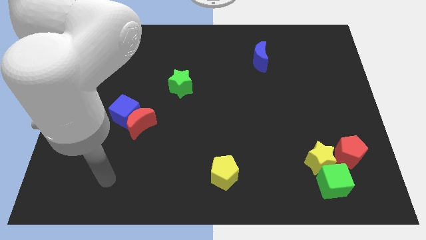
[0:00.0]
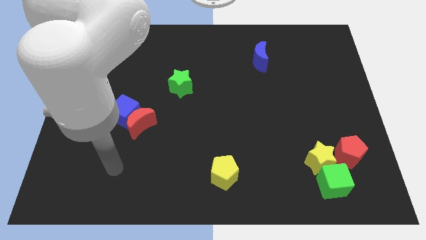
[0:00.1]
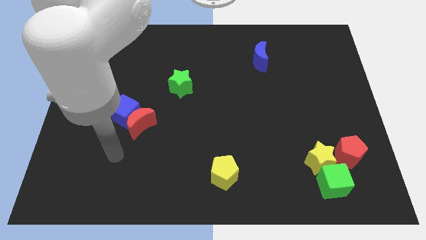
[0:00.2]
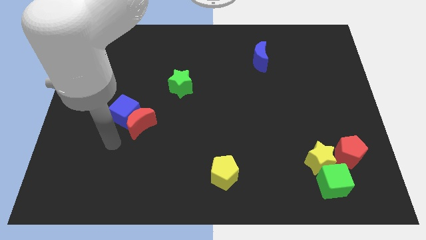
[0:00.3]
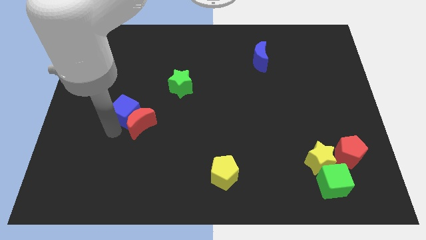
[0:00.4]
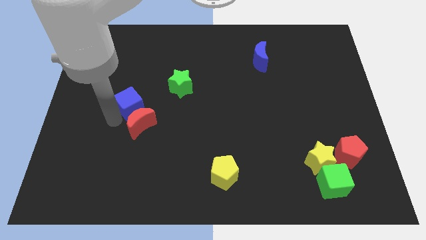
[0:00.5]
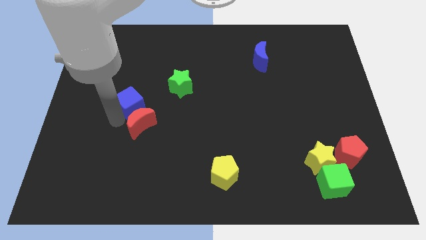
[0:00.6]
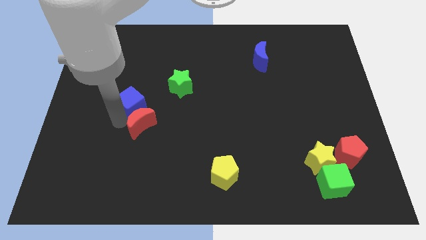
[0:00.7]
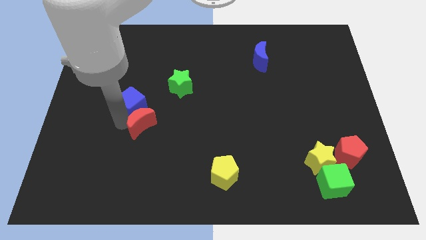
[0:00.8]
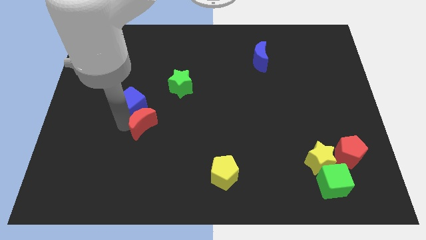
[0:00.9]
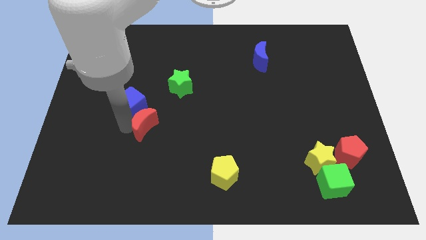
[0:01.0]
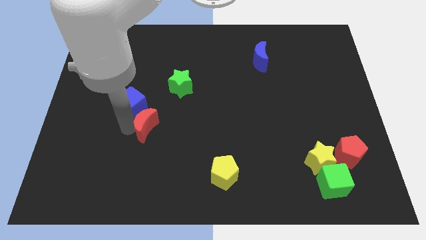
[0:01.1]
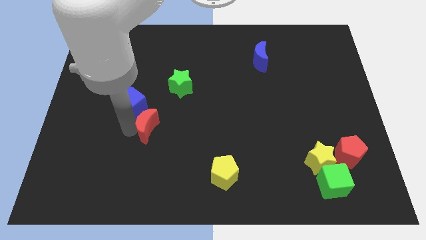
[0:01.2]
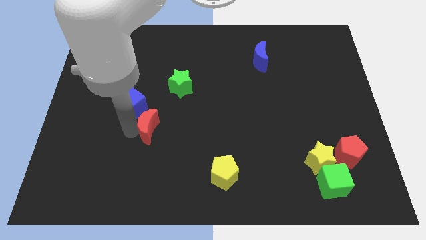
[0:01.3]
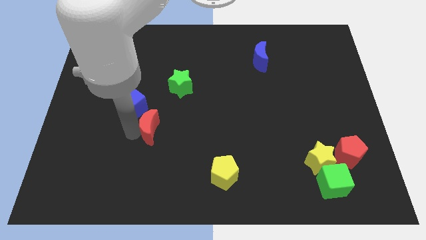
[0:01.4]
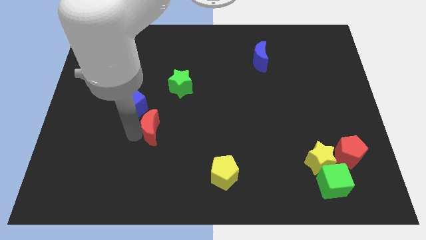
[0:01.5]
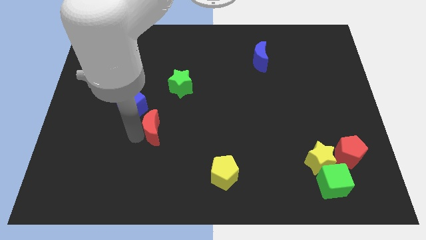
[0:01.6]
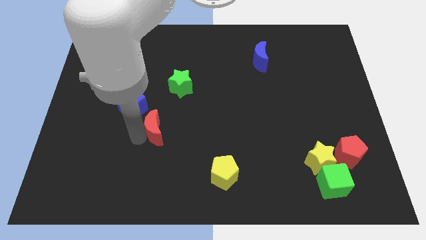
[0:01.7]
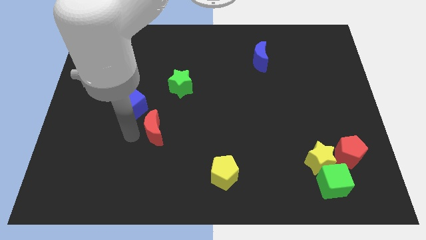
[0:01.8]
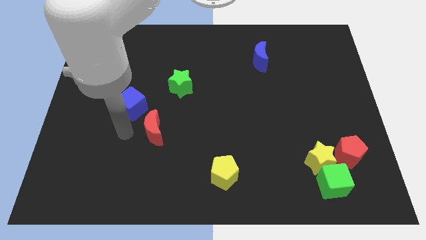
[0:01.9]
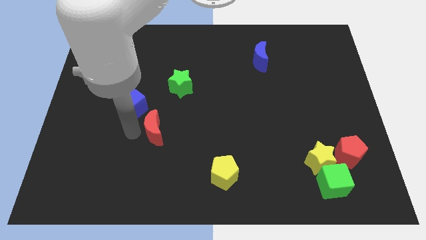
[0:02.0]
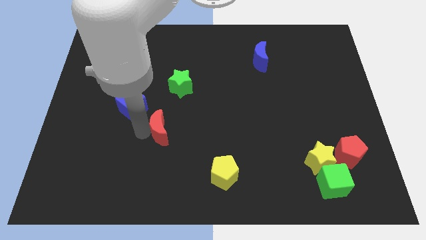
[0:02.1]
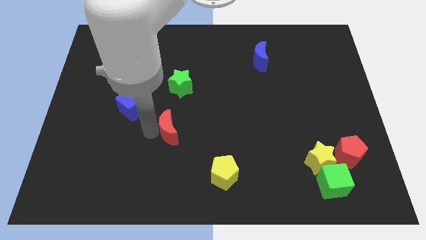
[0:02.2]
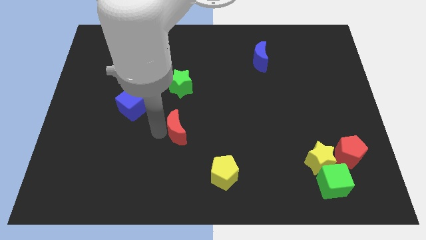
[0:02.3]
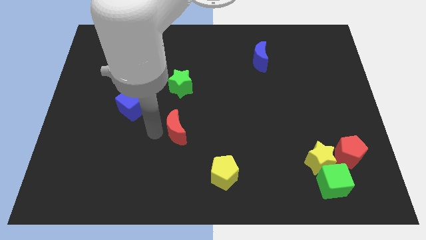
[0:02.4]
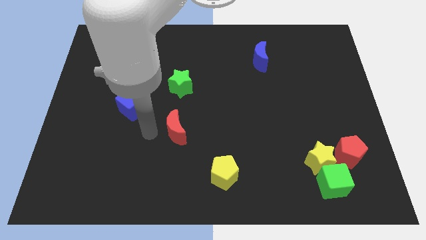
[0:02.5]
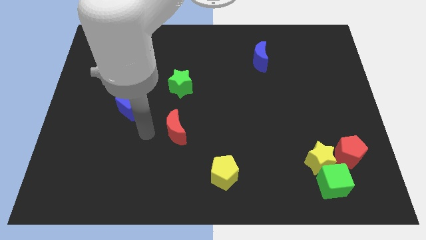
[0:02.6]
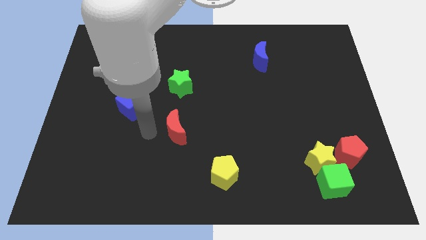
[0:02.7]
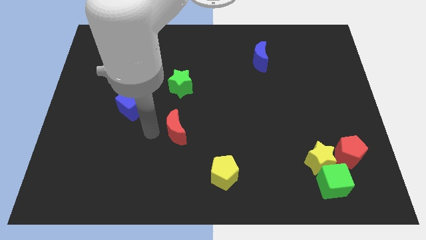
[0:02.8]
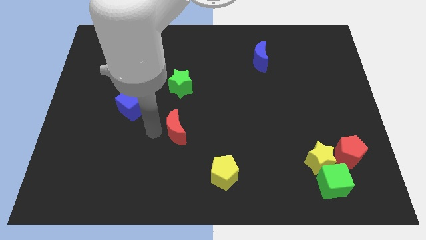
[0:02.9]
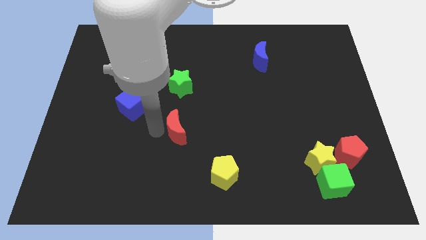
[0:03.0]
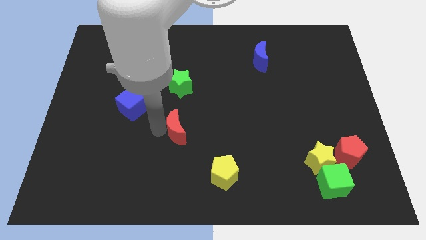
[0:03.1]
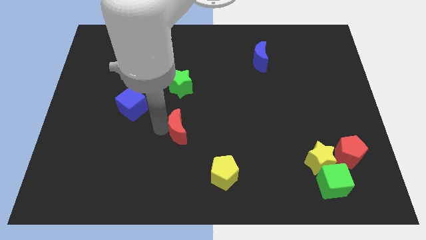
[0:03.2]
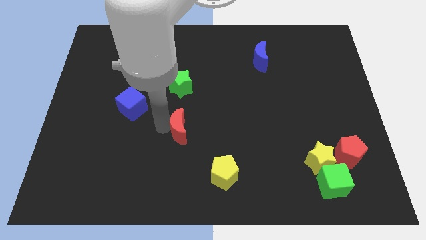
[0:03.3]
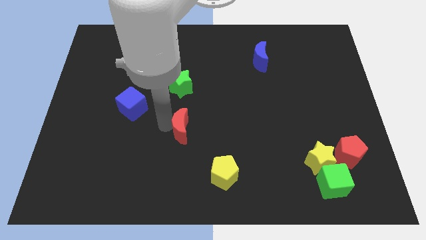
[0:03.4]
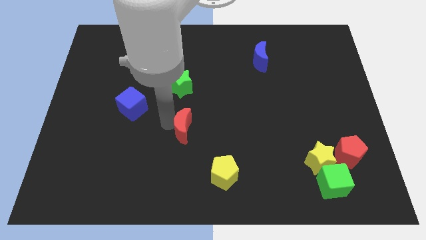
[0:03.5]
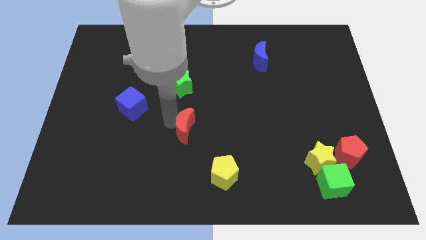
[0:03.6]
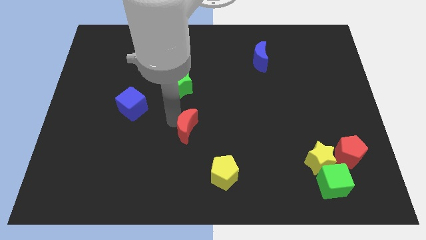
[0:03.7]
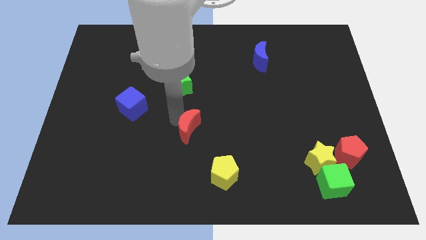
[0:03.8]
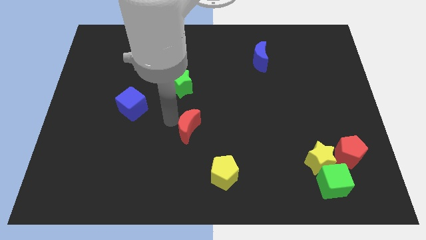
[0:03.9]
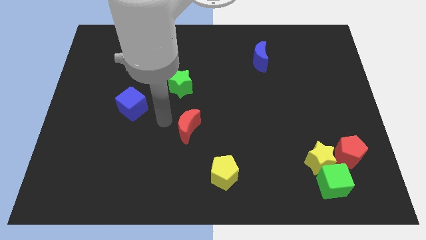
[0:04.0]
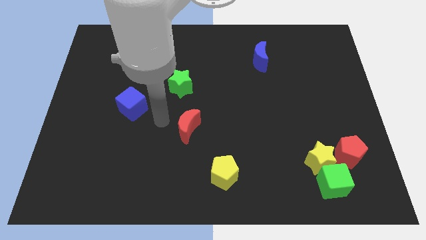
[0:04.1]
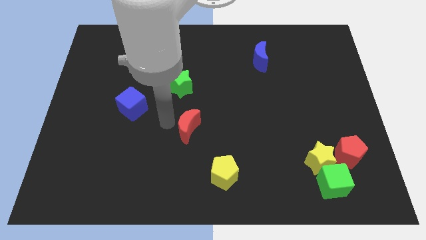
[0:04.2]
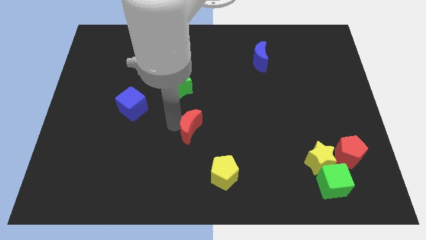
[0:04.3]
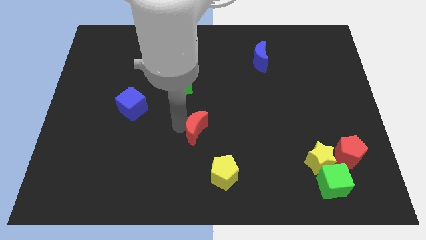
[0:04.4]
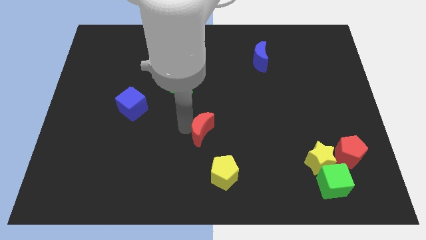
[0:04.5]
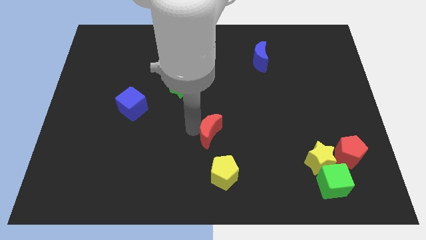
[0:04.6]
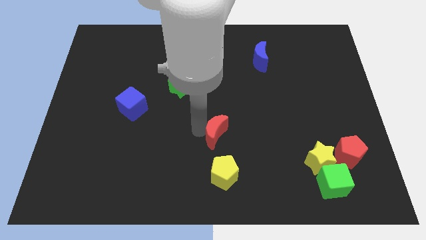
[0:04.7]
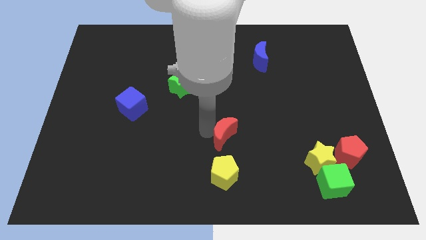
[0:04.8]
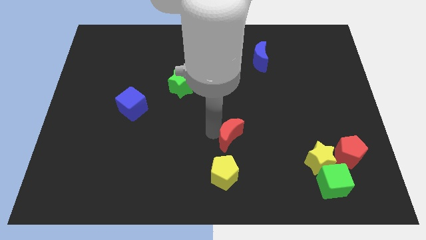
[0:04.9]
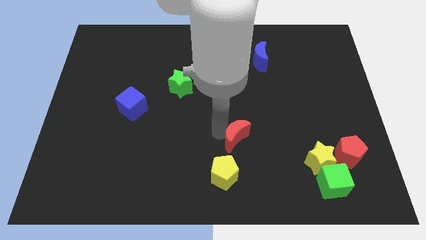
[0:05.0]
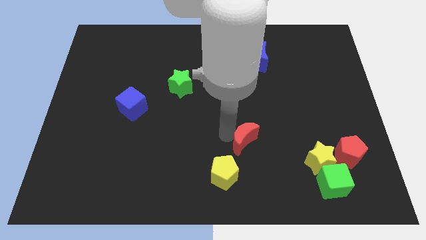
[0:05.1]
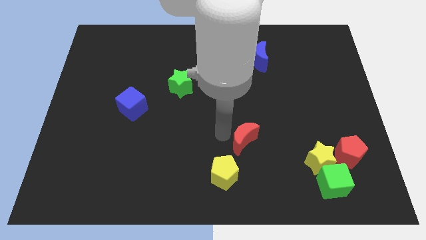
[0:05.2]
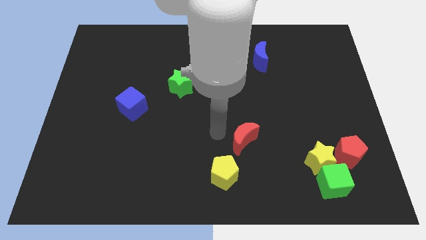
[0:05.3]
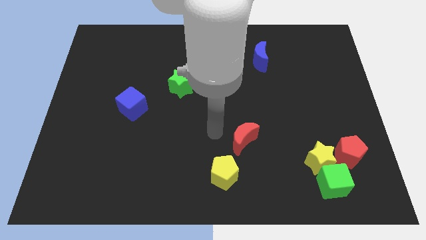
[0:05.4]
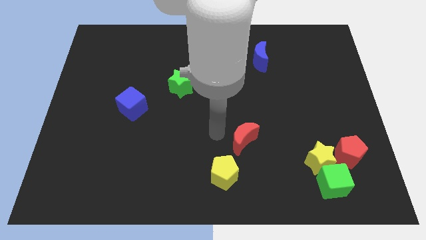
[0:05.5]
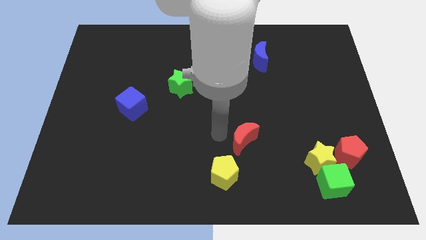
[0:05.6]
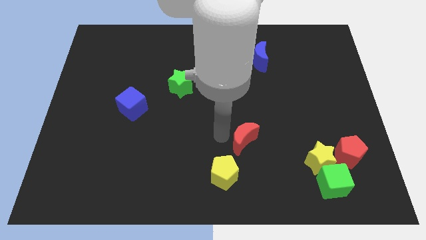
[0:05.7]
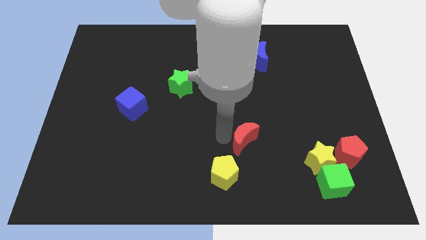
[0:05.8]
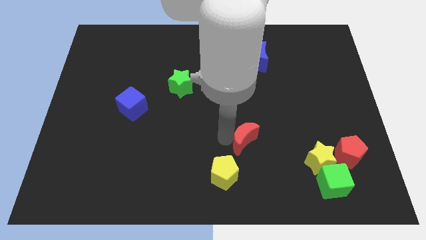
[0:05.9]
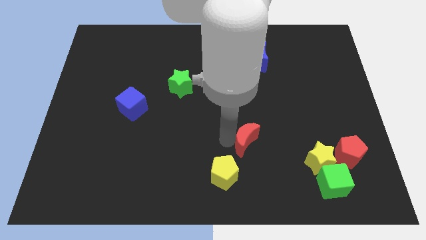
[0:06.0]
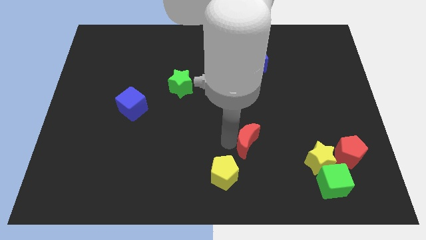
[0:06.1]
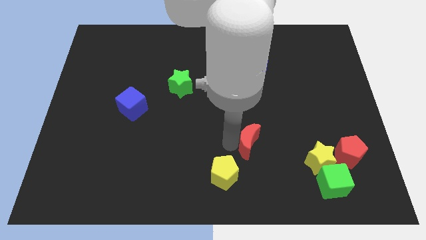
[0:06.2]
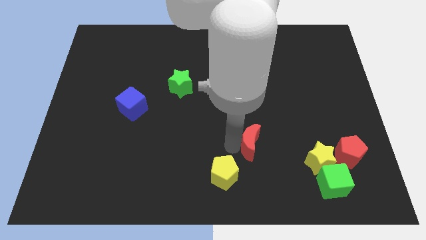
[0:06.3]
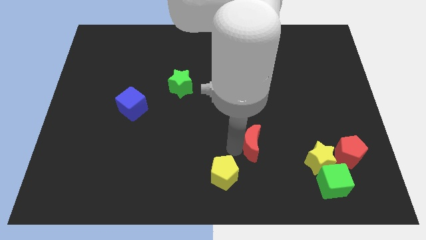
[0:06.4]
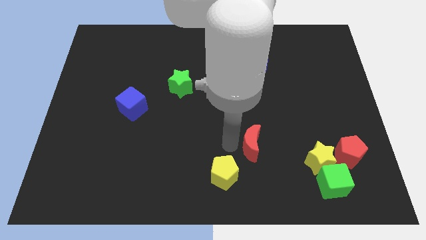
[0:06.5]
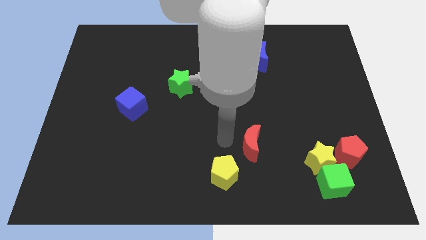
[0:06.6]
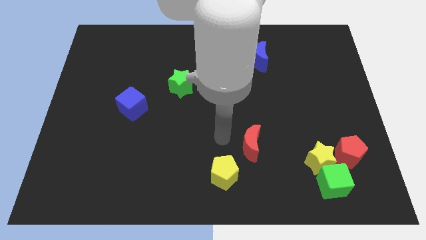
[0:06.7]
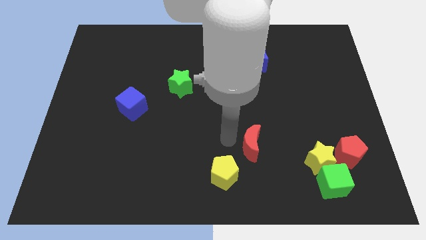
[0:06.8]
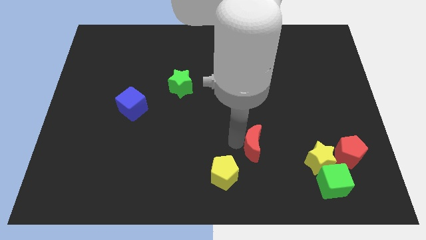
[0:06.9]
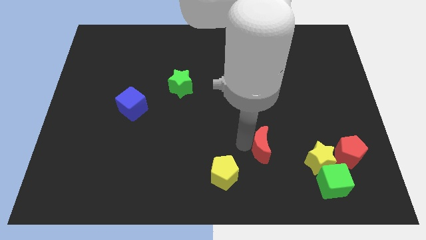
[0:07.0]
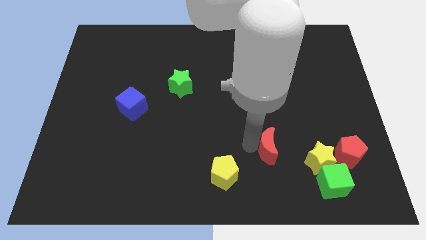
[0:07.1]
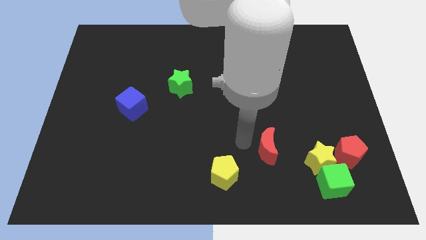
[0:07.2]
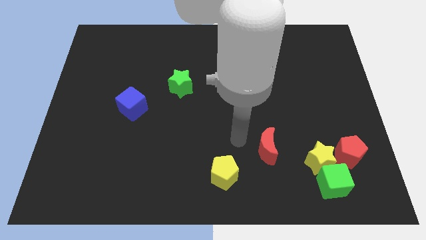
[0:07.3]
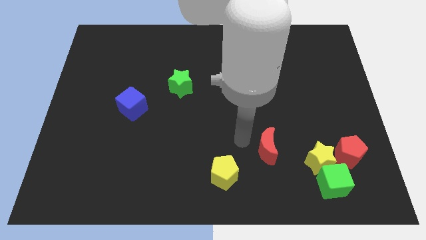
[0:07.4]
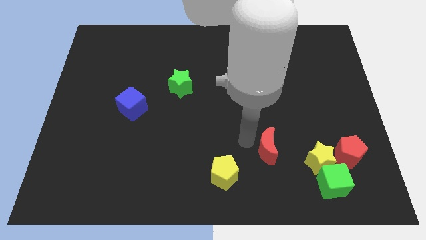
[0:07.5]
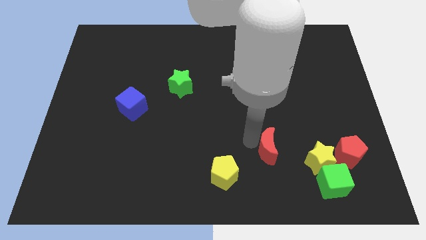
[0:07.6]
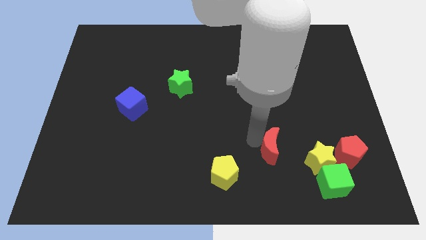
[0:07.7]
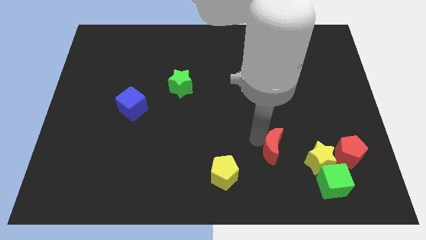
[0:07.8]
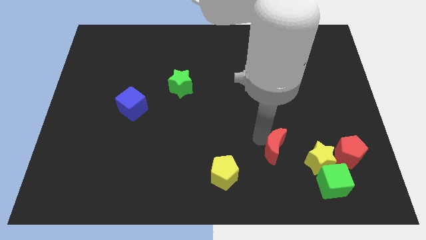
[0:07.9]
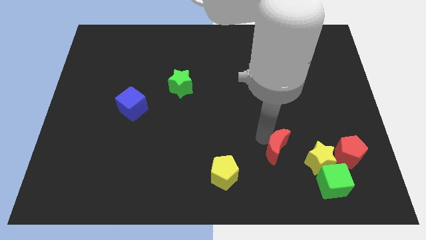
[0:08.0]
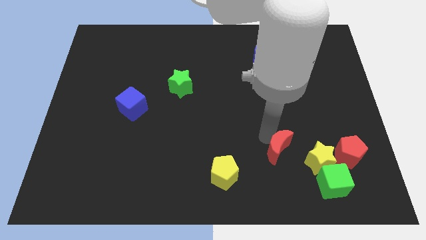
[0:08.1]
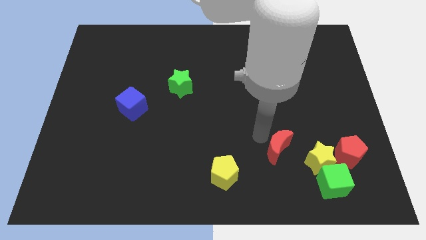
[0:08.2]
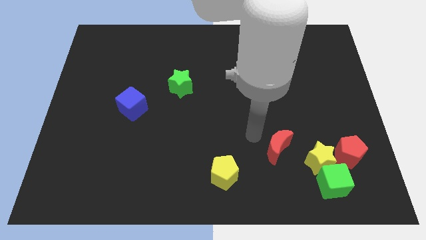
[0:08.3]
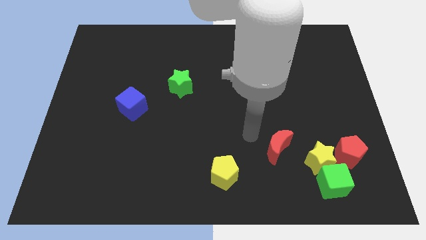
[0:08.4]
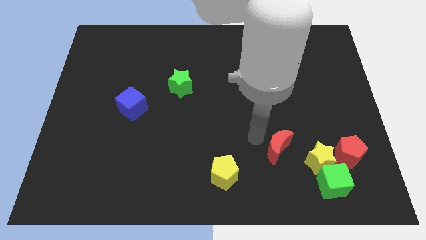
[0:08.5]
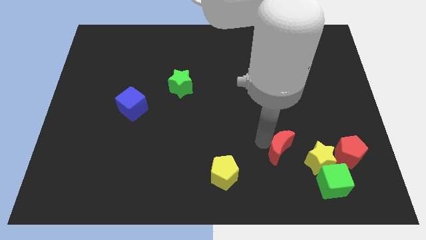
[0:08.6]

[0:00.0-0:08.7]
move the red moon to the top left side of the green cube
